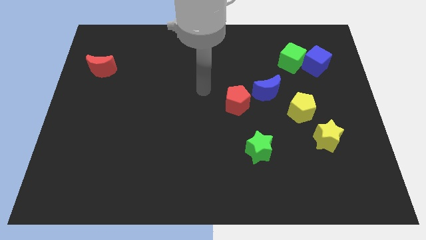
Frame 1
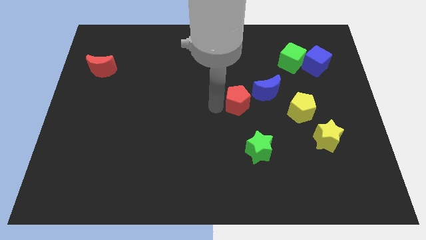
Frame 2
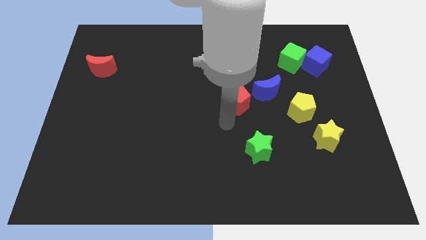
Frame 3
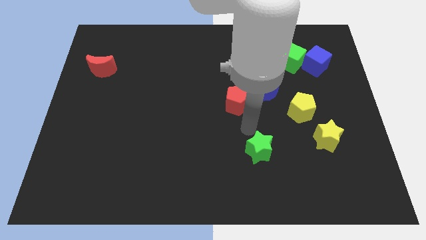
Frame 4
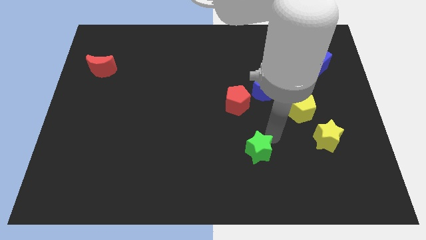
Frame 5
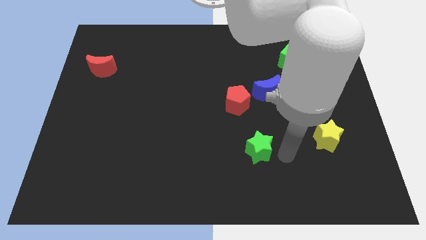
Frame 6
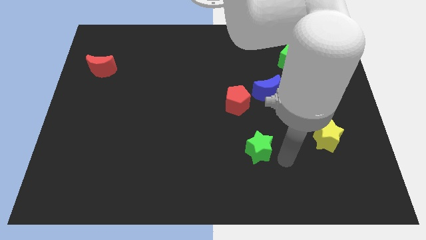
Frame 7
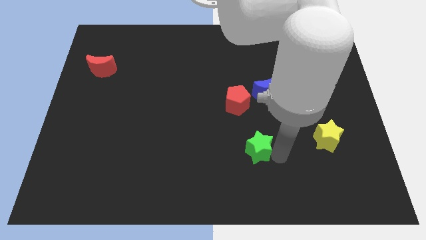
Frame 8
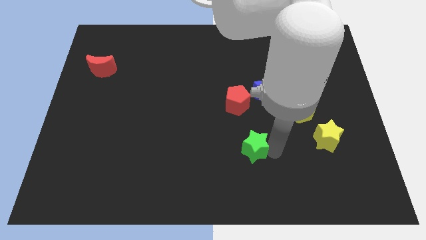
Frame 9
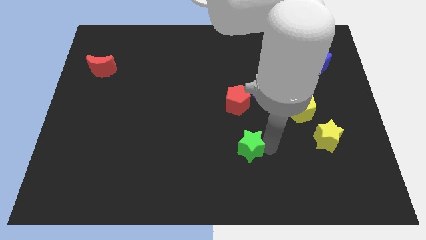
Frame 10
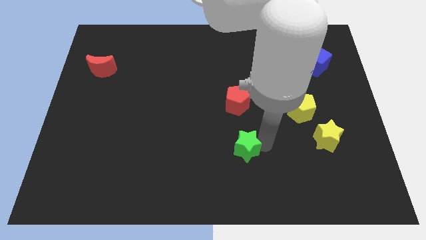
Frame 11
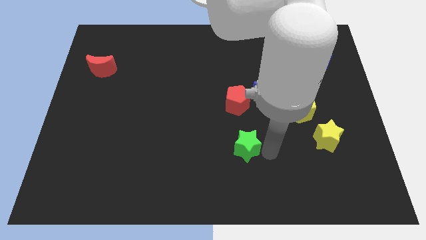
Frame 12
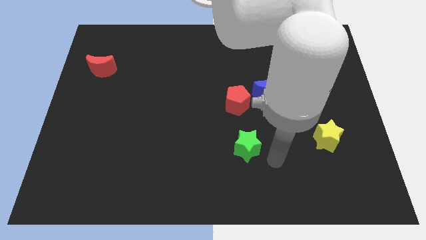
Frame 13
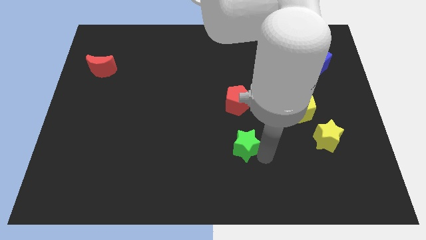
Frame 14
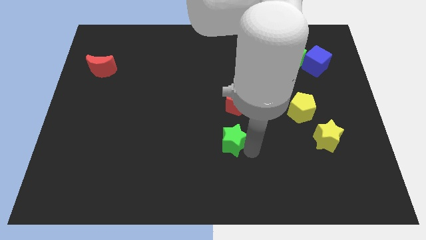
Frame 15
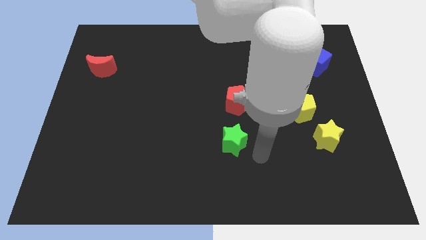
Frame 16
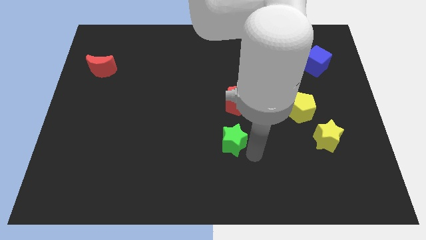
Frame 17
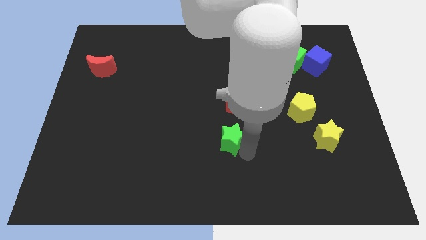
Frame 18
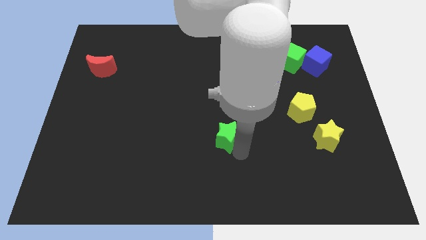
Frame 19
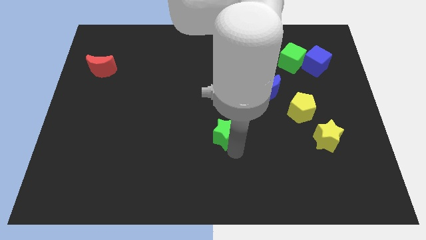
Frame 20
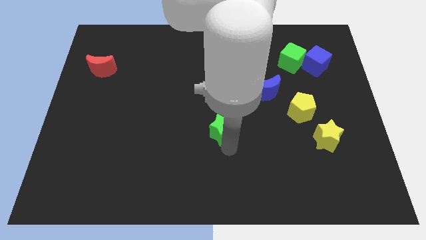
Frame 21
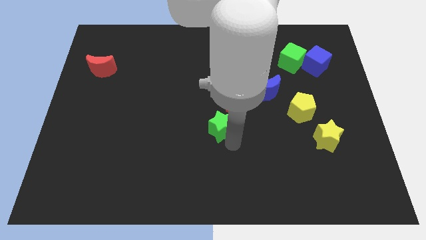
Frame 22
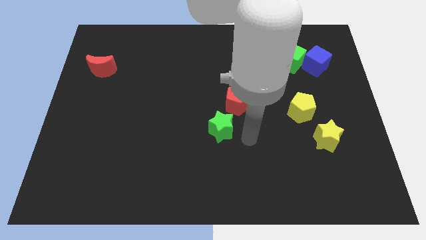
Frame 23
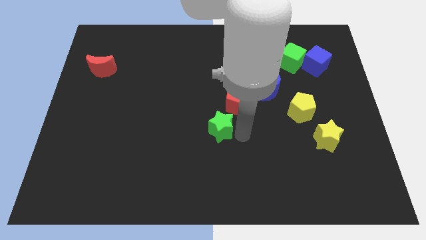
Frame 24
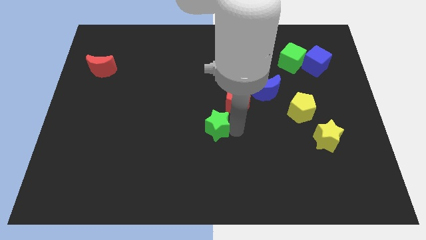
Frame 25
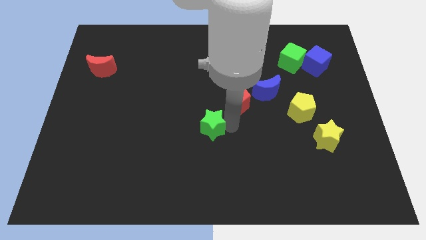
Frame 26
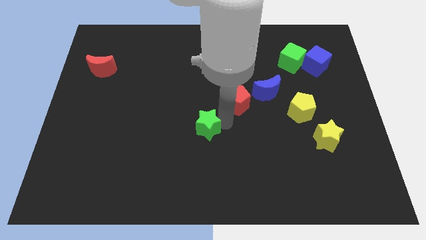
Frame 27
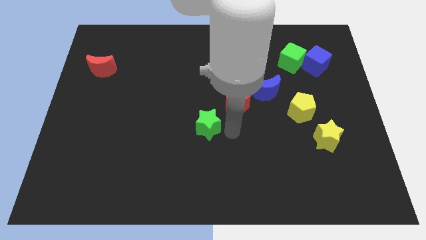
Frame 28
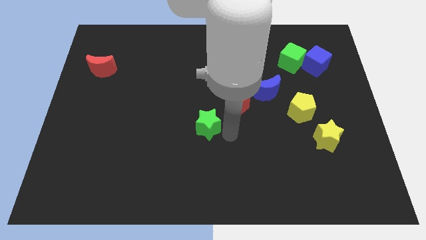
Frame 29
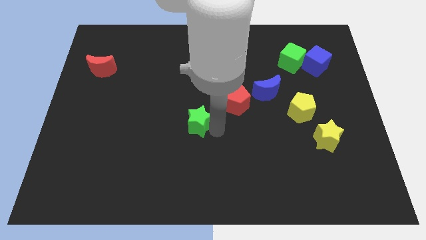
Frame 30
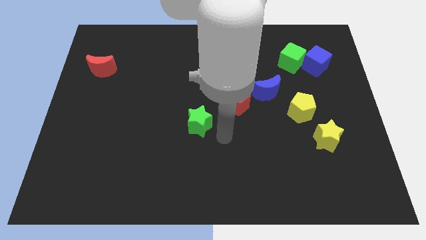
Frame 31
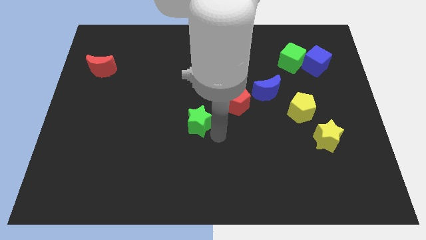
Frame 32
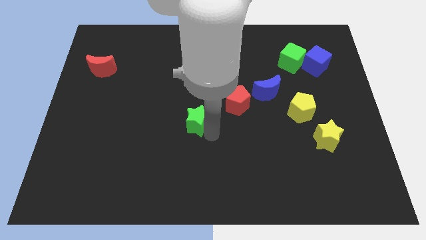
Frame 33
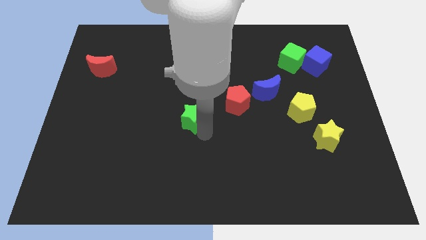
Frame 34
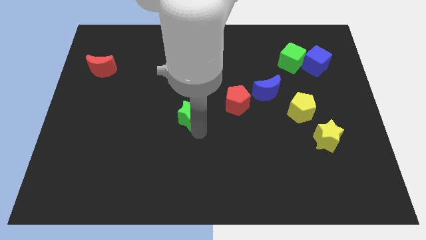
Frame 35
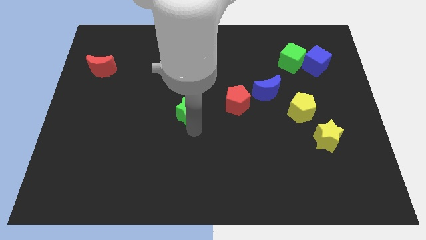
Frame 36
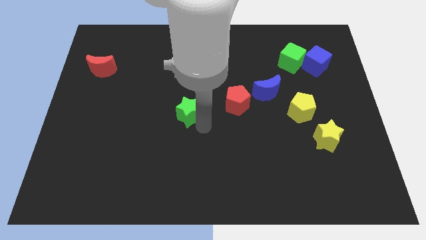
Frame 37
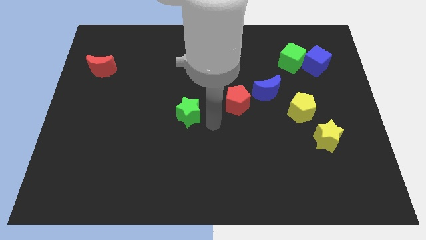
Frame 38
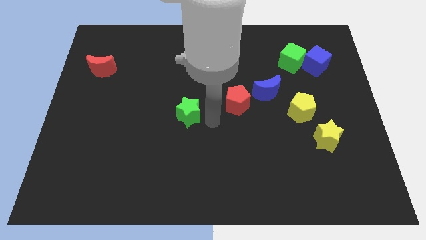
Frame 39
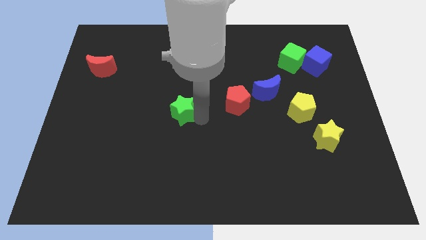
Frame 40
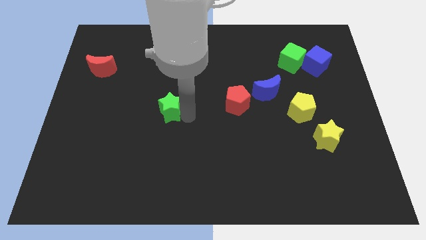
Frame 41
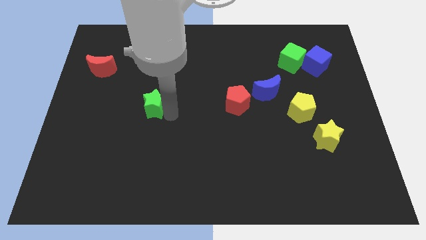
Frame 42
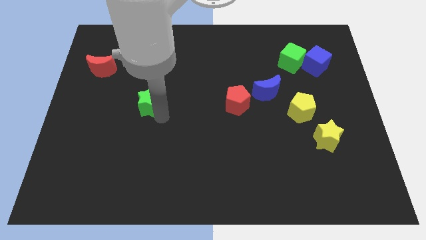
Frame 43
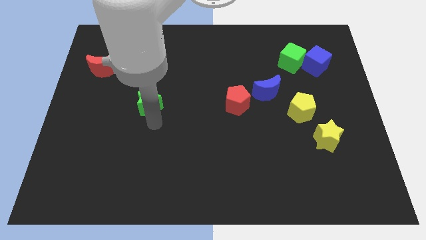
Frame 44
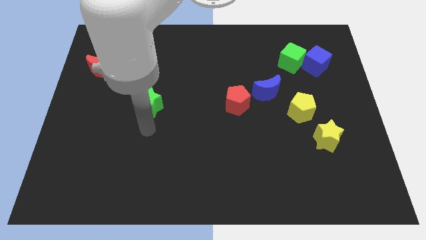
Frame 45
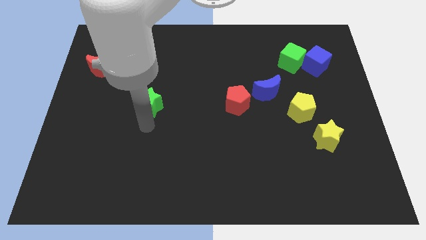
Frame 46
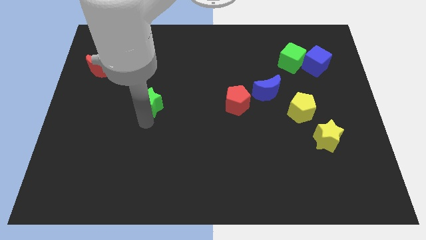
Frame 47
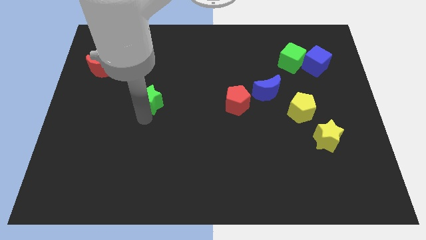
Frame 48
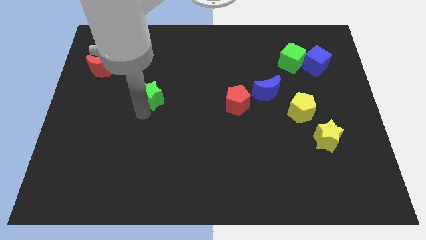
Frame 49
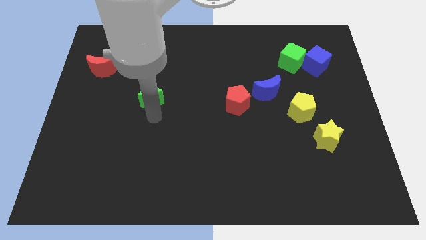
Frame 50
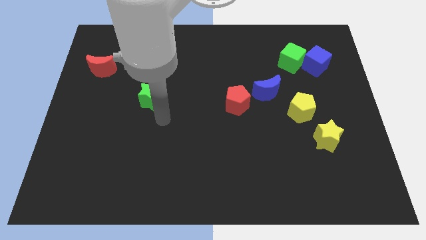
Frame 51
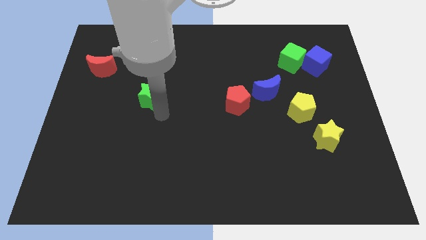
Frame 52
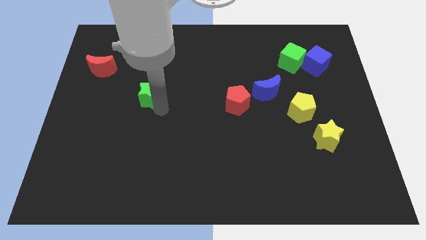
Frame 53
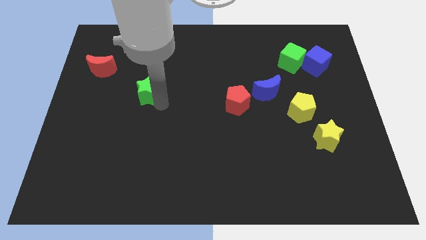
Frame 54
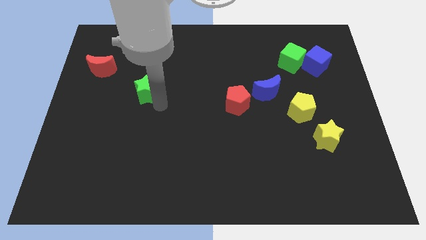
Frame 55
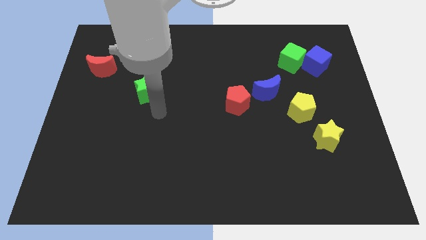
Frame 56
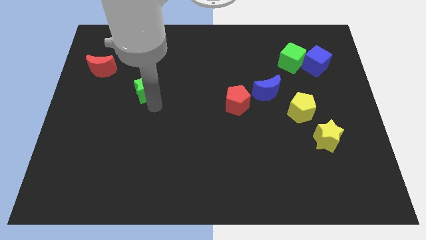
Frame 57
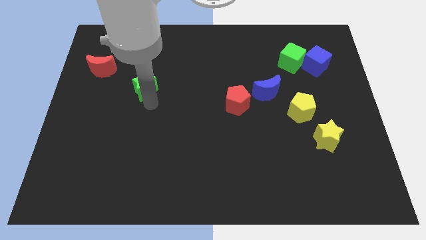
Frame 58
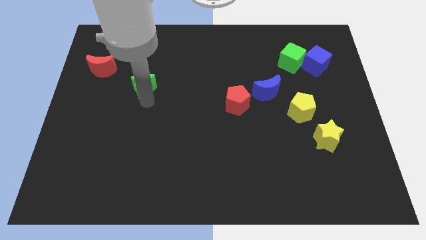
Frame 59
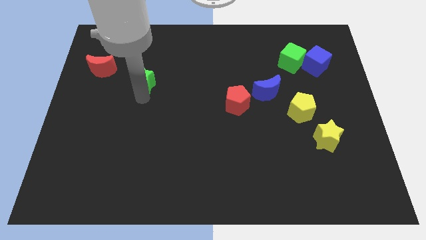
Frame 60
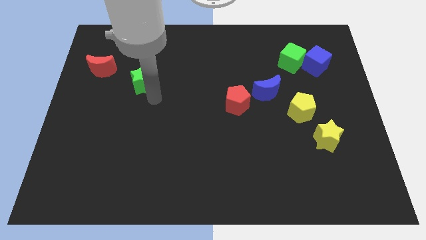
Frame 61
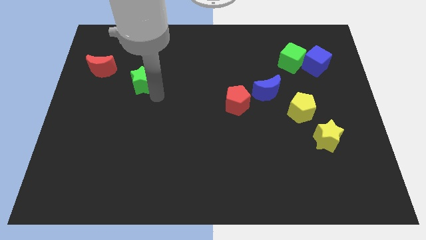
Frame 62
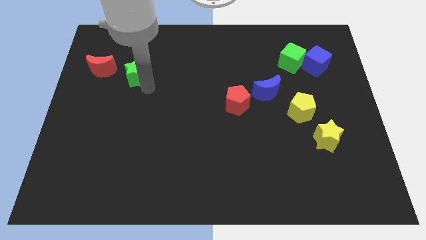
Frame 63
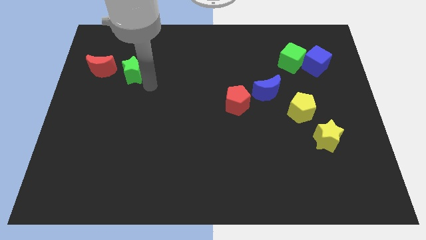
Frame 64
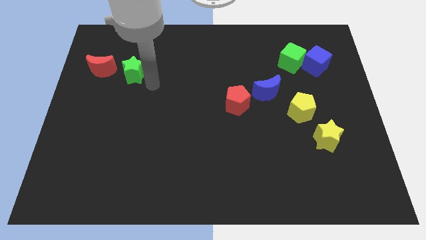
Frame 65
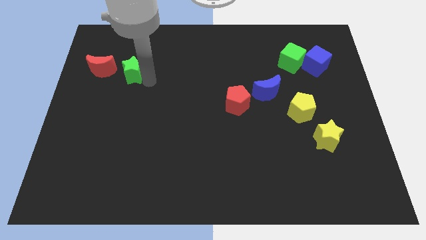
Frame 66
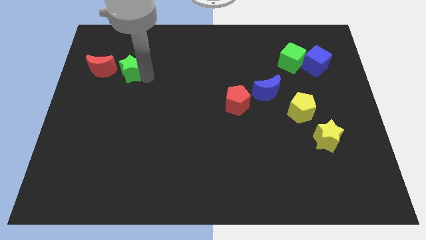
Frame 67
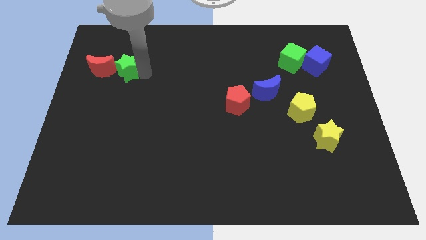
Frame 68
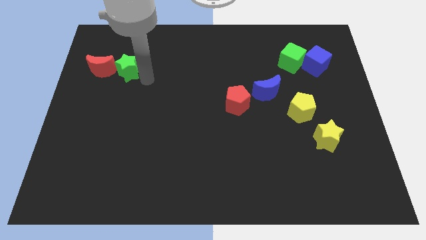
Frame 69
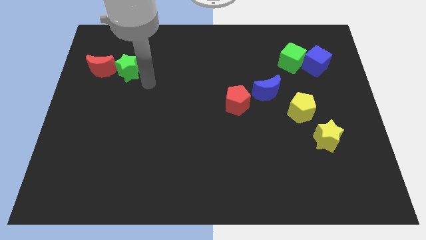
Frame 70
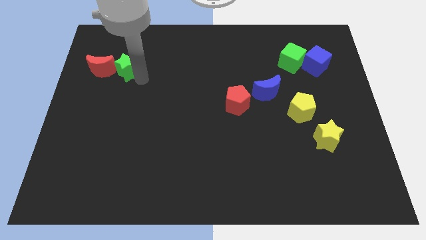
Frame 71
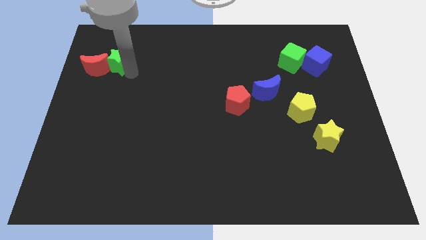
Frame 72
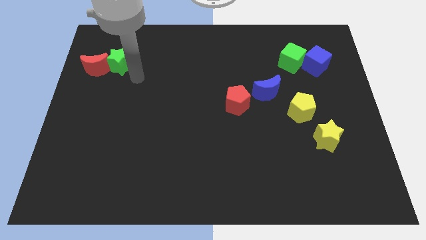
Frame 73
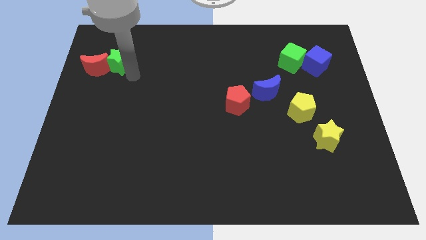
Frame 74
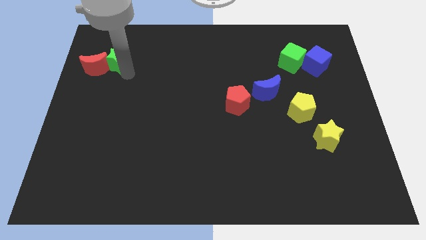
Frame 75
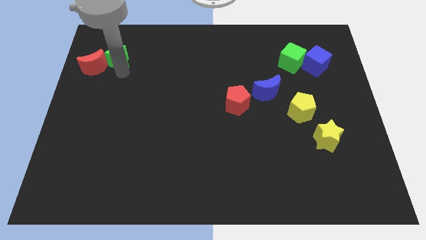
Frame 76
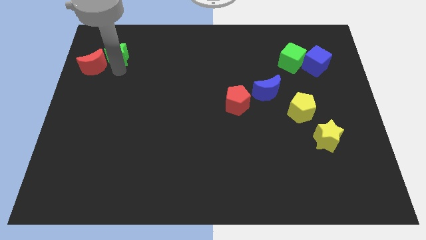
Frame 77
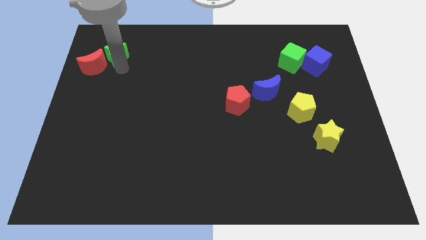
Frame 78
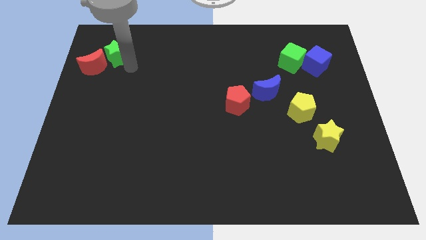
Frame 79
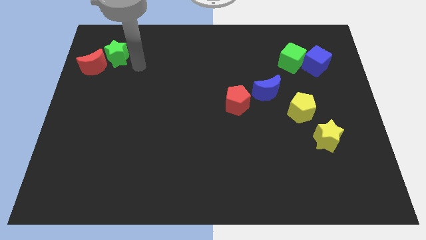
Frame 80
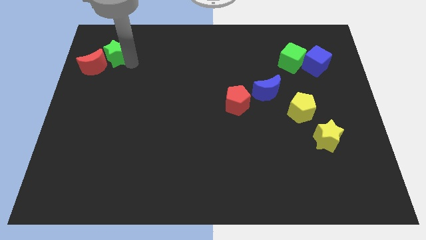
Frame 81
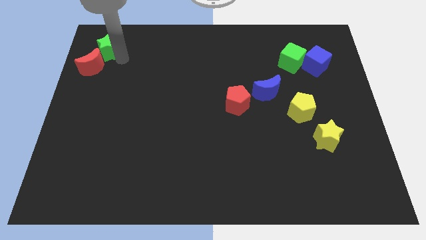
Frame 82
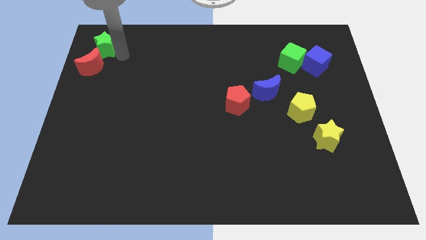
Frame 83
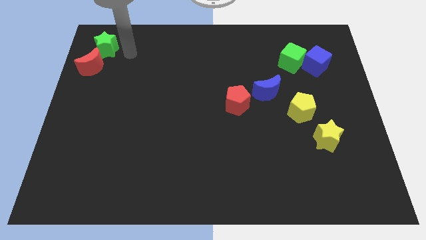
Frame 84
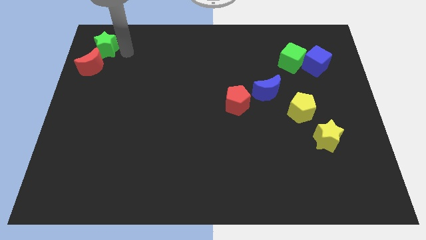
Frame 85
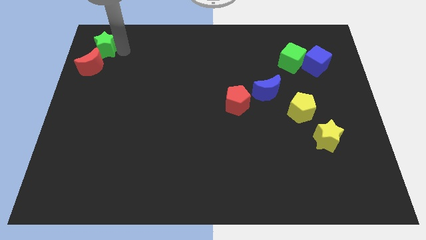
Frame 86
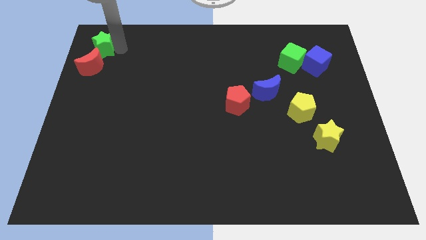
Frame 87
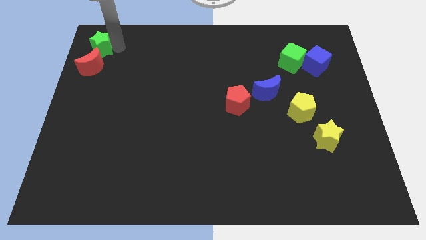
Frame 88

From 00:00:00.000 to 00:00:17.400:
slide the green star to the top left corner
